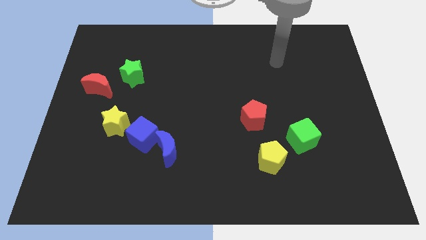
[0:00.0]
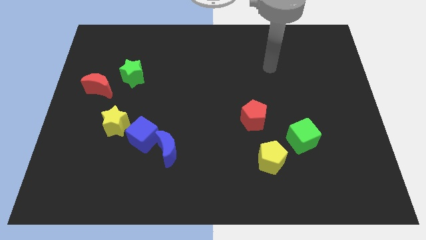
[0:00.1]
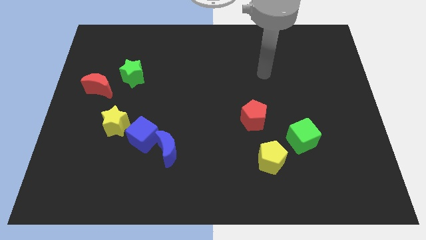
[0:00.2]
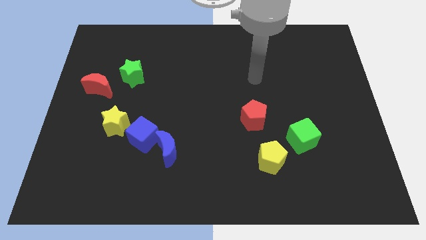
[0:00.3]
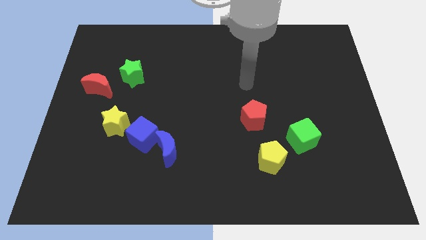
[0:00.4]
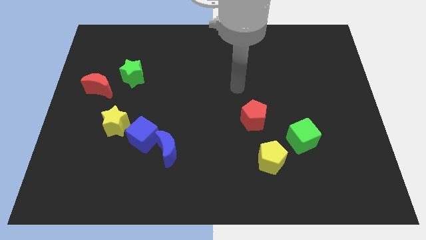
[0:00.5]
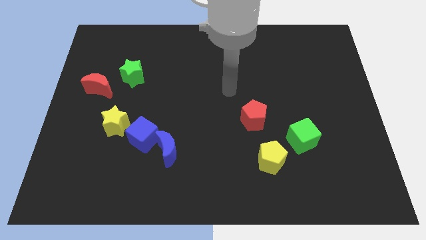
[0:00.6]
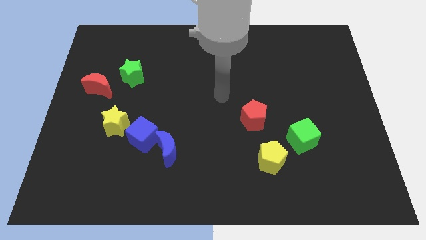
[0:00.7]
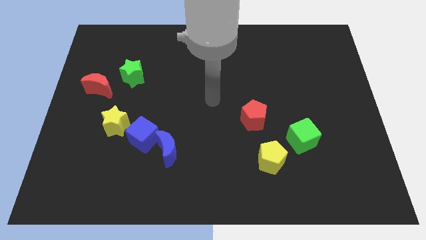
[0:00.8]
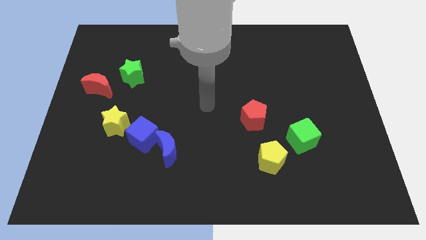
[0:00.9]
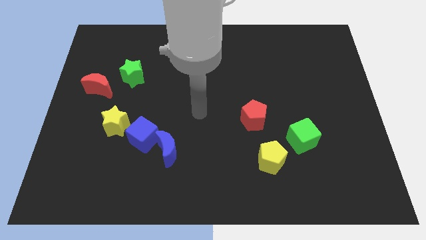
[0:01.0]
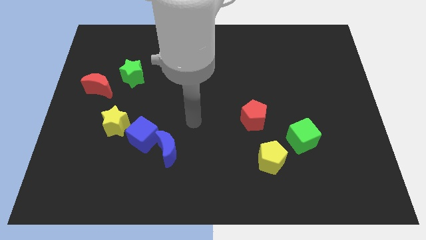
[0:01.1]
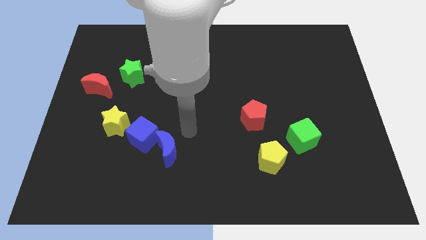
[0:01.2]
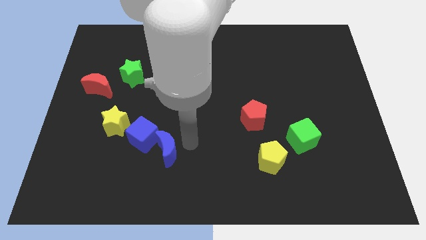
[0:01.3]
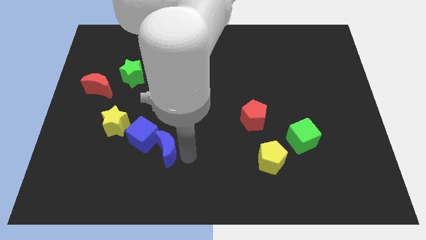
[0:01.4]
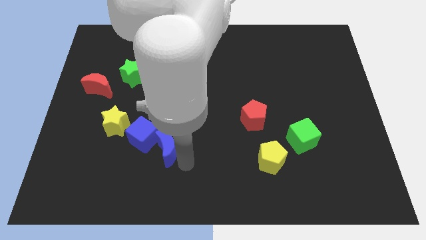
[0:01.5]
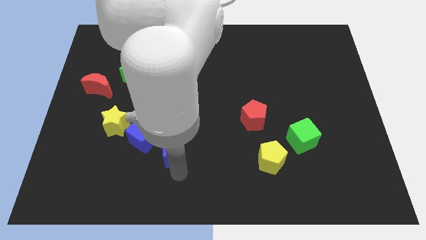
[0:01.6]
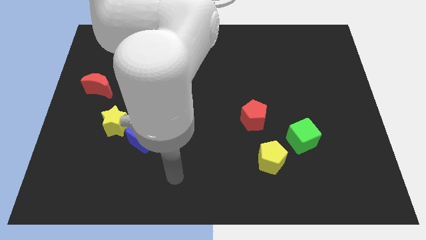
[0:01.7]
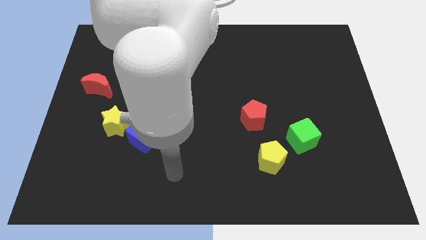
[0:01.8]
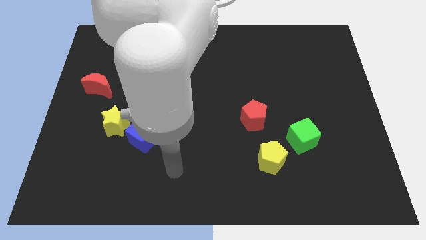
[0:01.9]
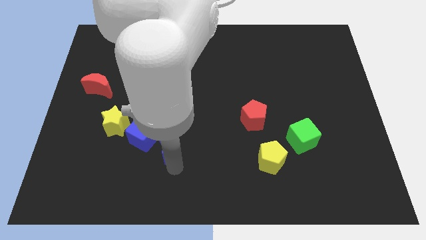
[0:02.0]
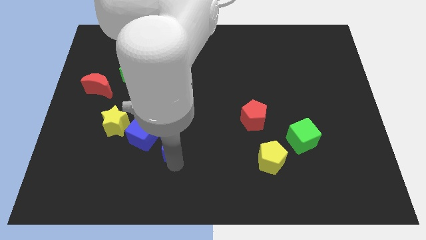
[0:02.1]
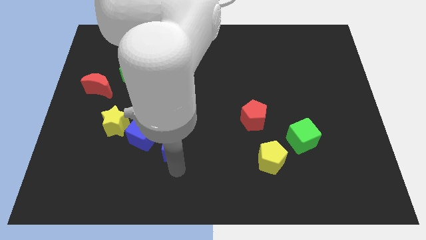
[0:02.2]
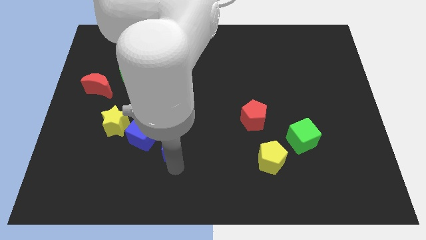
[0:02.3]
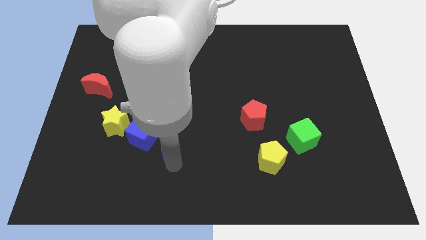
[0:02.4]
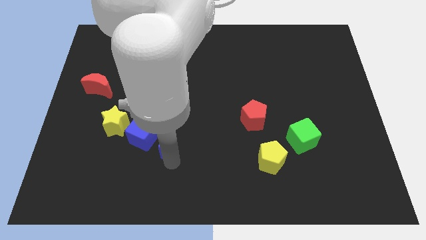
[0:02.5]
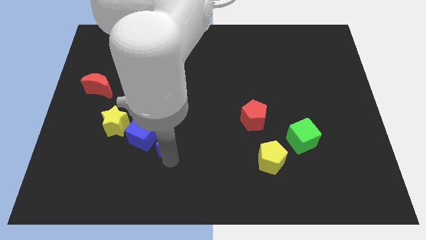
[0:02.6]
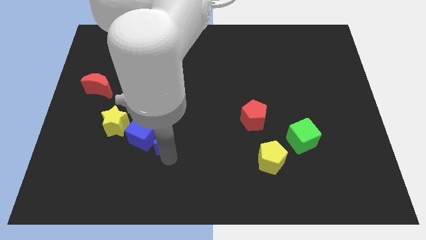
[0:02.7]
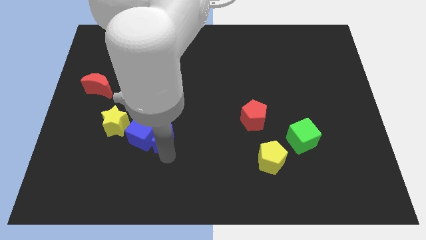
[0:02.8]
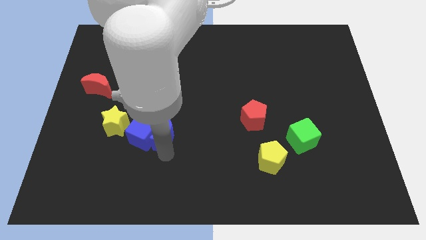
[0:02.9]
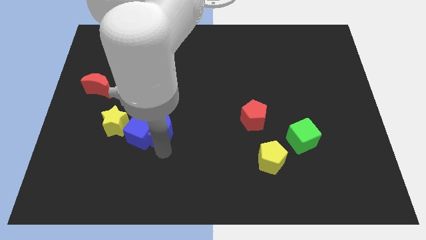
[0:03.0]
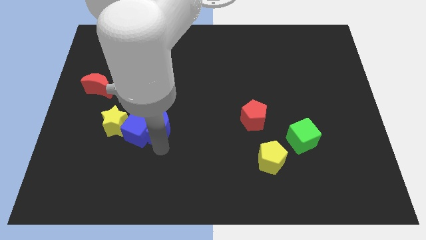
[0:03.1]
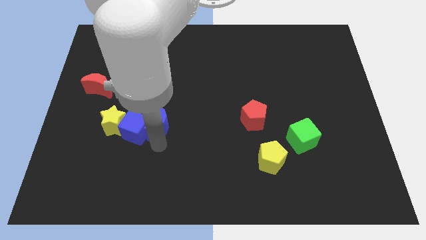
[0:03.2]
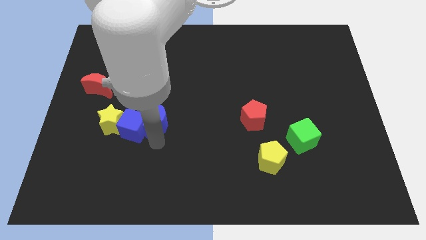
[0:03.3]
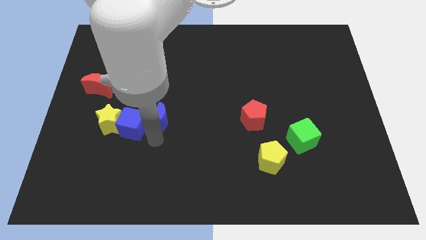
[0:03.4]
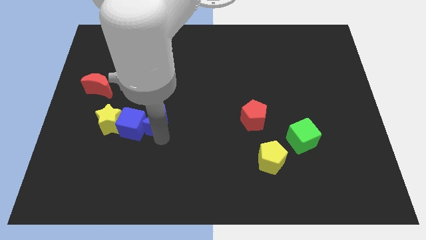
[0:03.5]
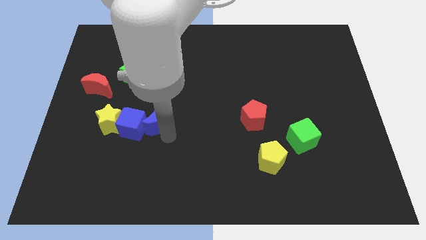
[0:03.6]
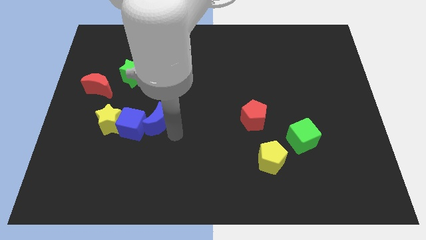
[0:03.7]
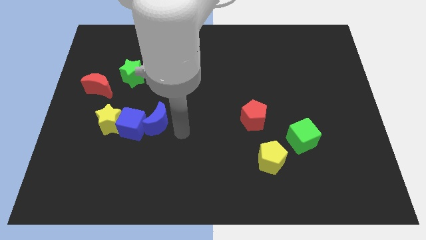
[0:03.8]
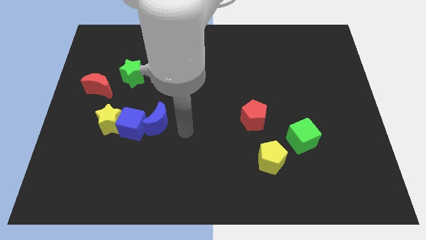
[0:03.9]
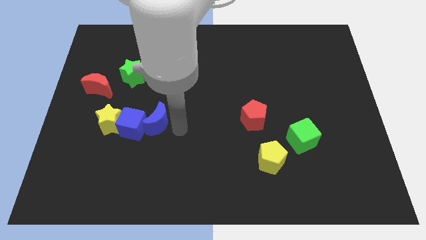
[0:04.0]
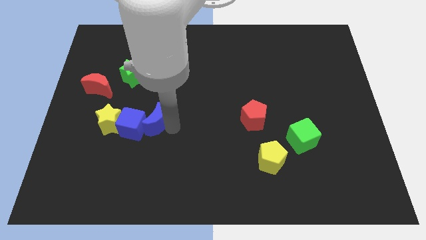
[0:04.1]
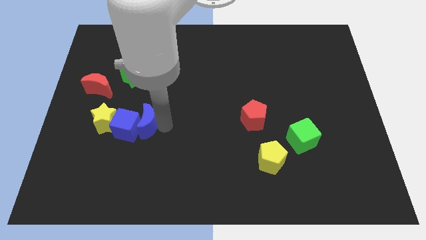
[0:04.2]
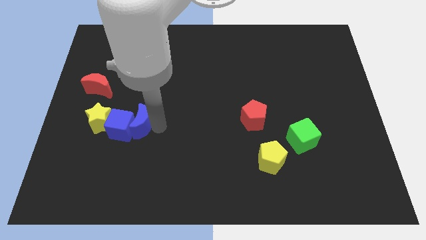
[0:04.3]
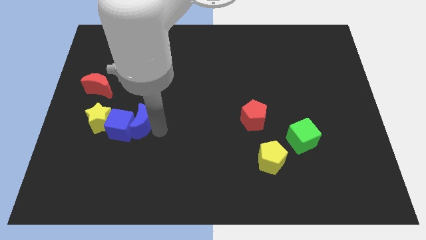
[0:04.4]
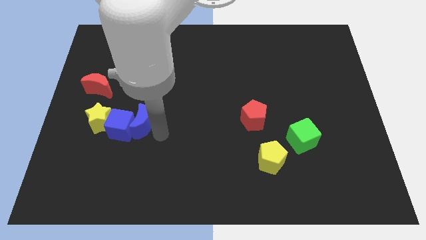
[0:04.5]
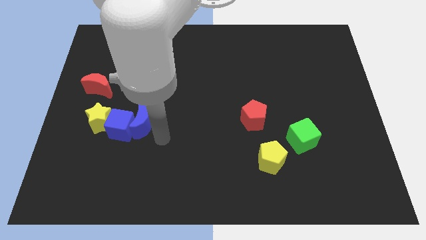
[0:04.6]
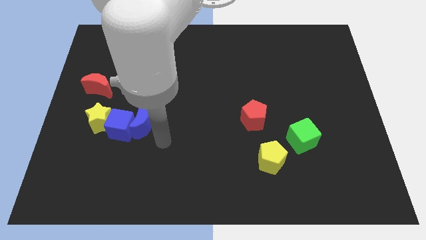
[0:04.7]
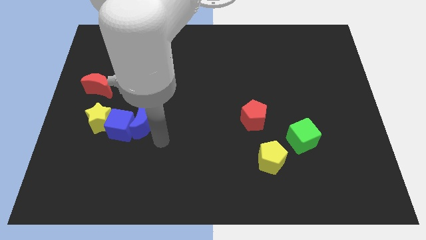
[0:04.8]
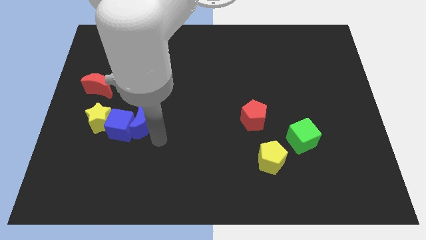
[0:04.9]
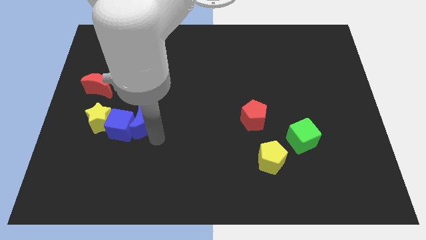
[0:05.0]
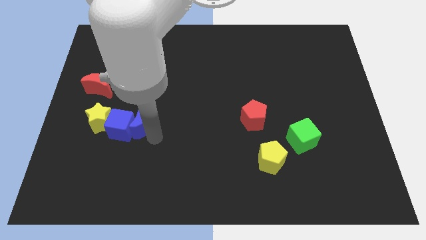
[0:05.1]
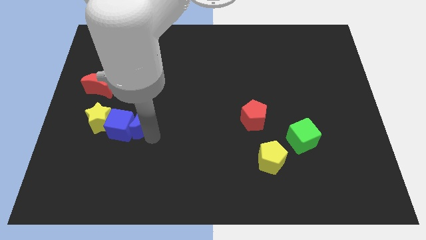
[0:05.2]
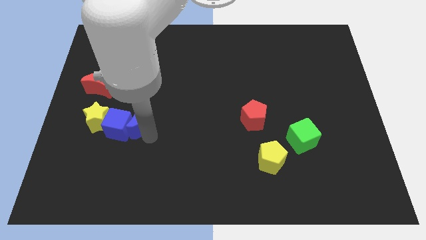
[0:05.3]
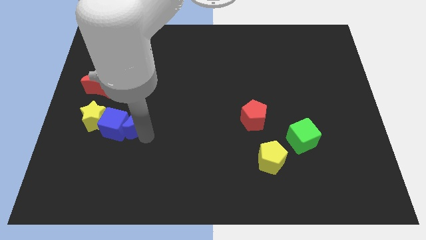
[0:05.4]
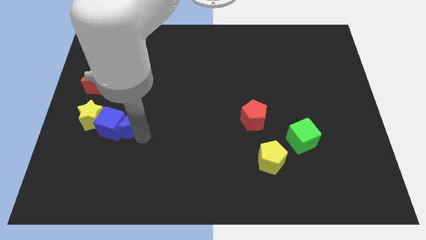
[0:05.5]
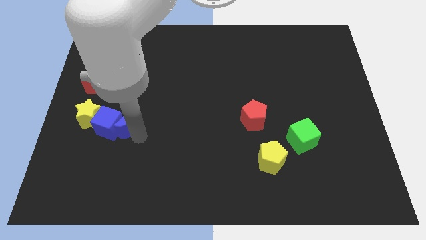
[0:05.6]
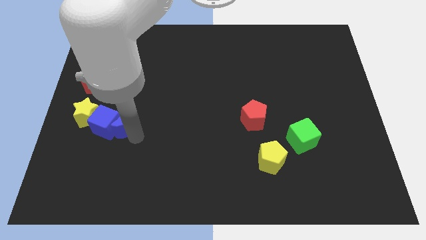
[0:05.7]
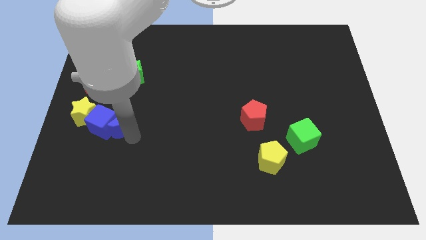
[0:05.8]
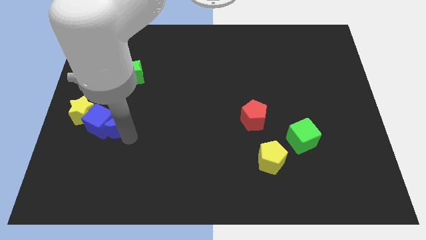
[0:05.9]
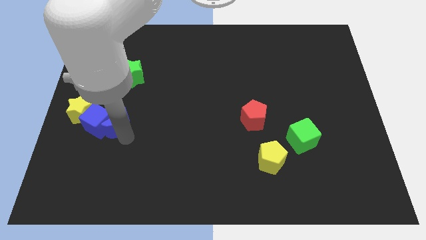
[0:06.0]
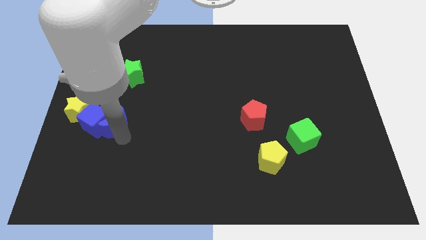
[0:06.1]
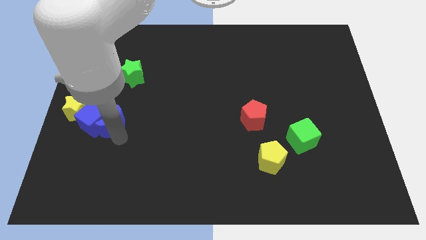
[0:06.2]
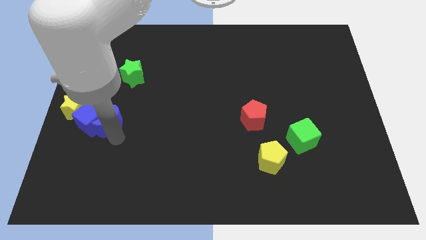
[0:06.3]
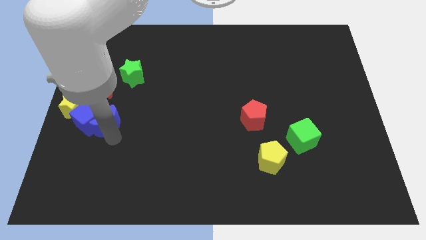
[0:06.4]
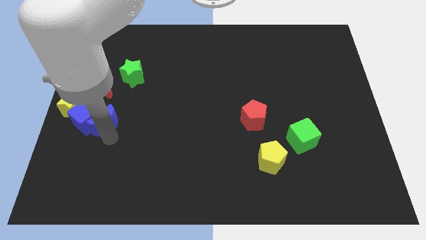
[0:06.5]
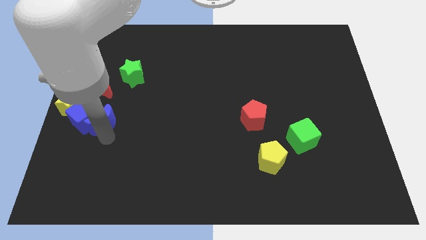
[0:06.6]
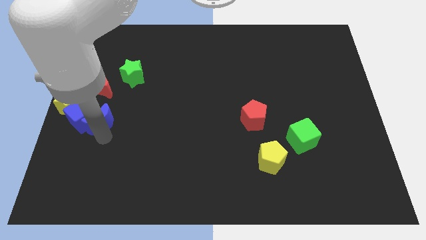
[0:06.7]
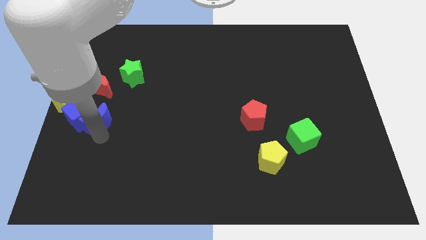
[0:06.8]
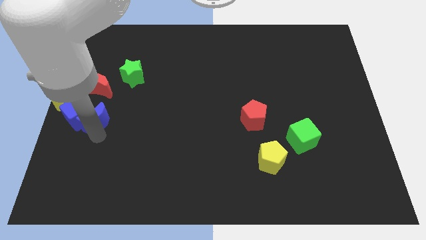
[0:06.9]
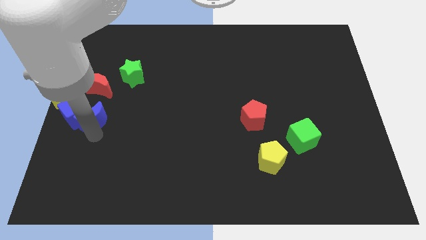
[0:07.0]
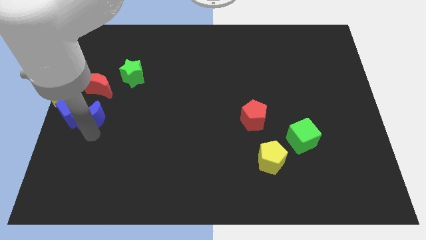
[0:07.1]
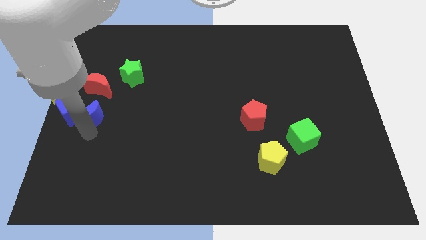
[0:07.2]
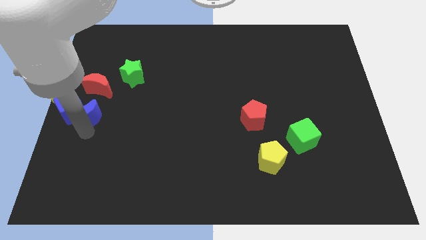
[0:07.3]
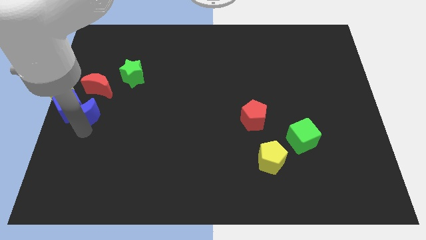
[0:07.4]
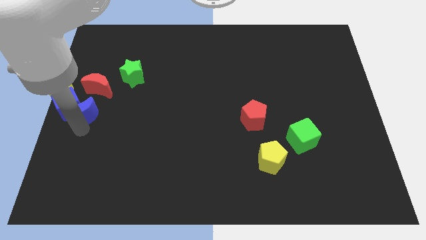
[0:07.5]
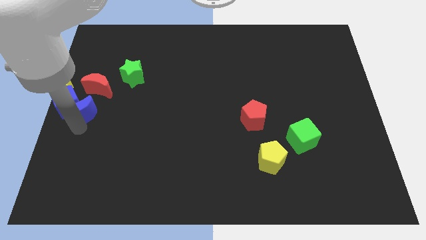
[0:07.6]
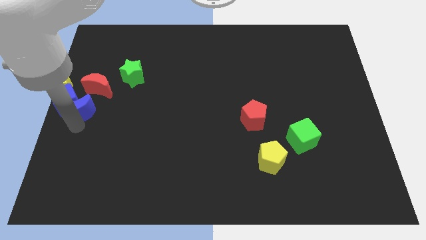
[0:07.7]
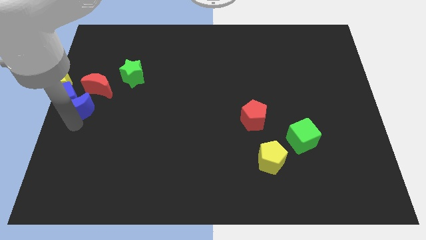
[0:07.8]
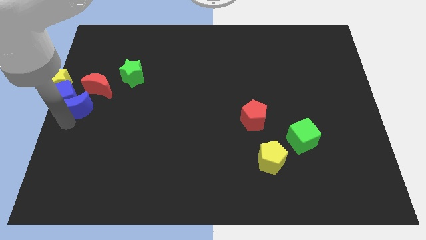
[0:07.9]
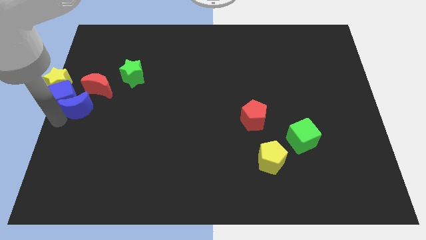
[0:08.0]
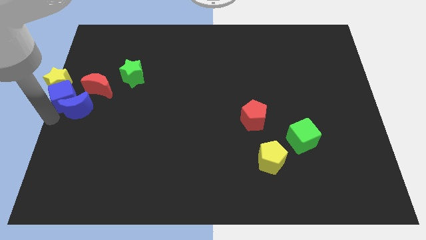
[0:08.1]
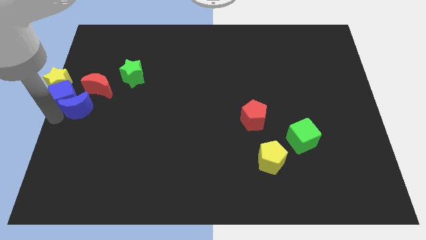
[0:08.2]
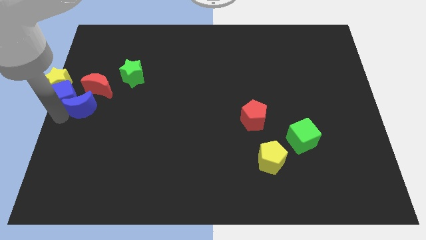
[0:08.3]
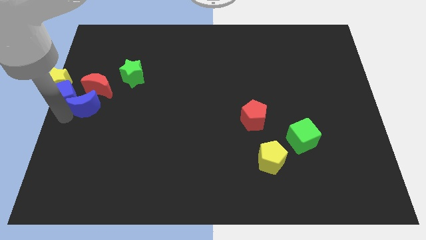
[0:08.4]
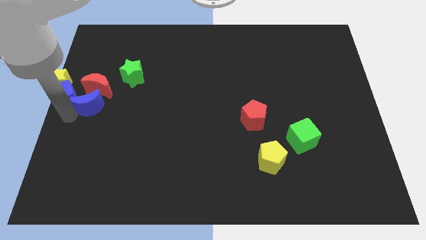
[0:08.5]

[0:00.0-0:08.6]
slide the blue moon close to the red moon
